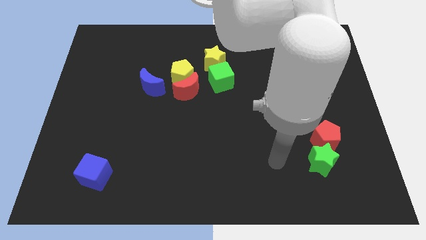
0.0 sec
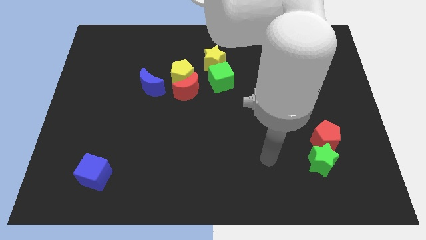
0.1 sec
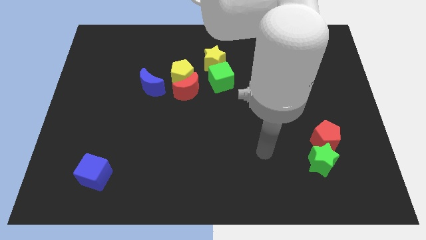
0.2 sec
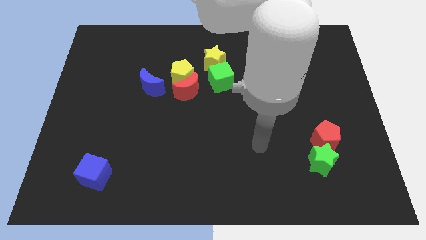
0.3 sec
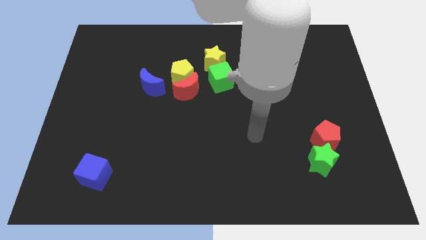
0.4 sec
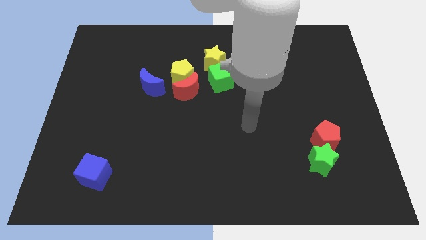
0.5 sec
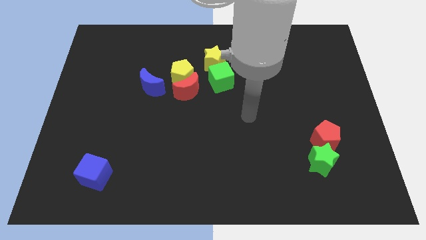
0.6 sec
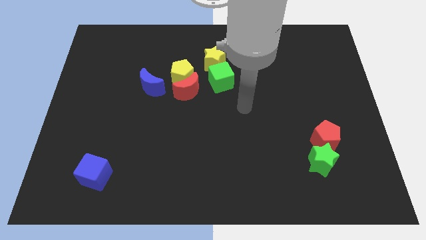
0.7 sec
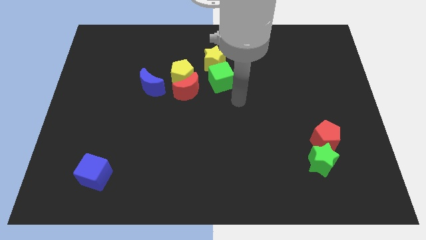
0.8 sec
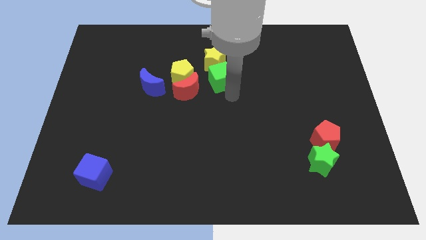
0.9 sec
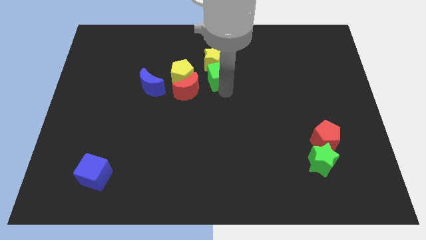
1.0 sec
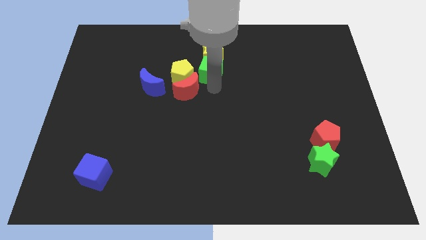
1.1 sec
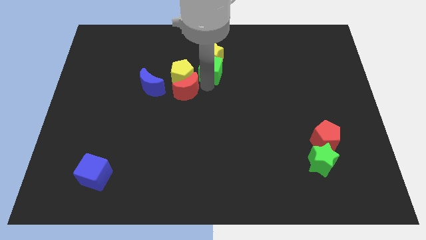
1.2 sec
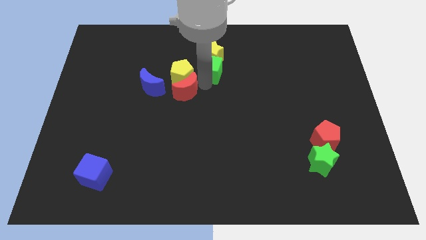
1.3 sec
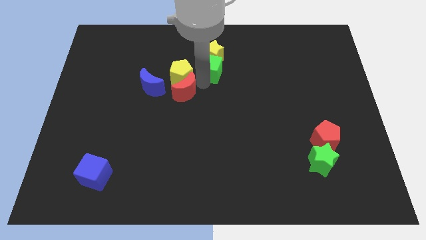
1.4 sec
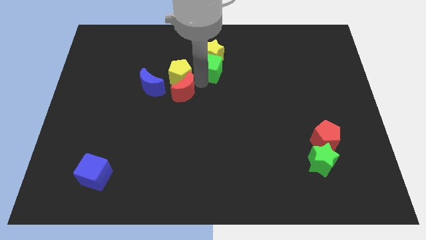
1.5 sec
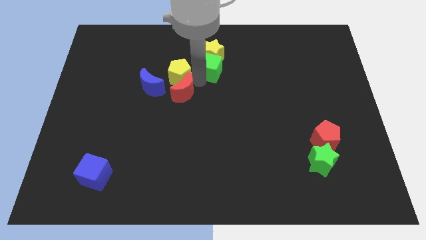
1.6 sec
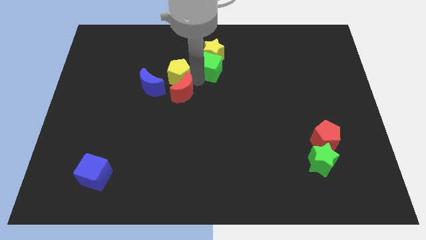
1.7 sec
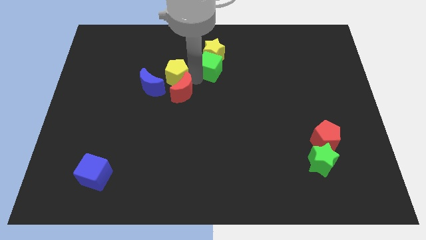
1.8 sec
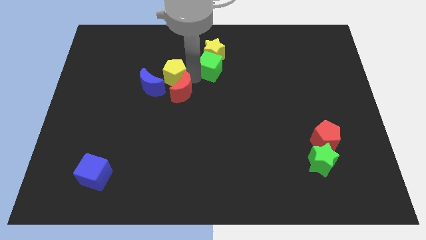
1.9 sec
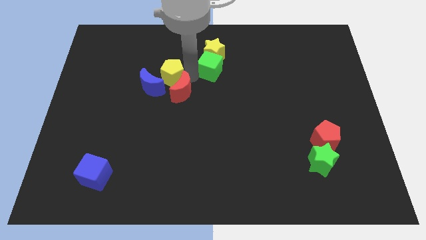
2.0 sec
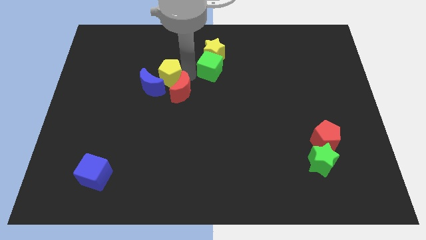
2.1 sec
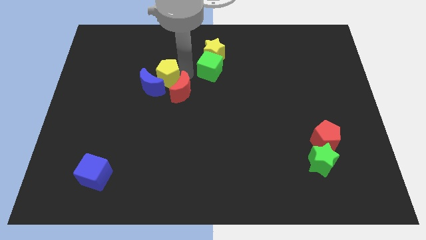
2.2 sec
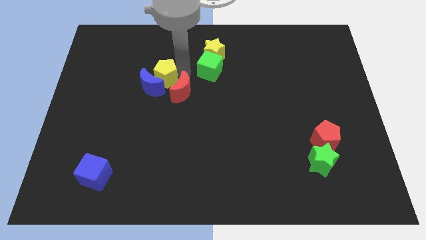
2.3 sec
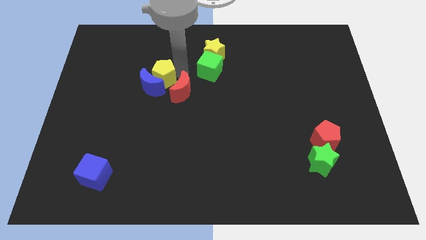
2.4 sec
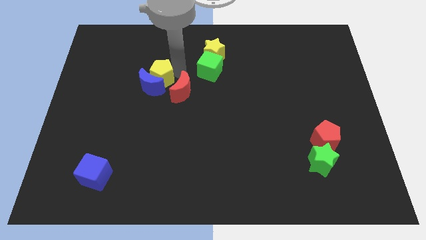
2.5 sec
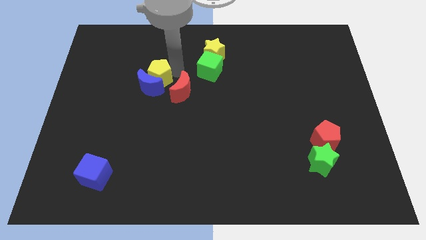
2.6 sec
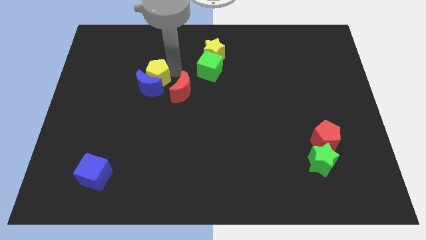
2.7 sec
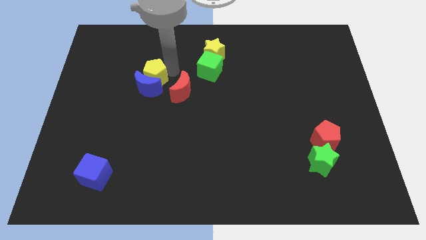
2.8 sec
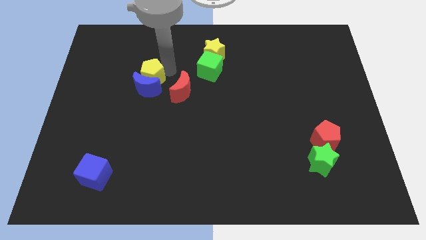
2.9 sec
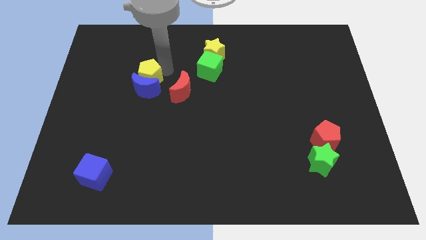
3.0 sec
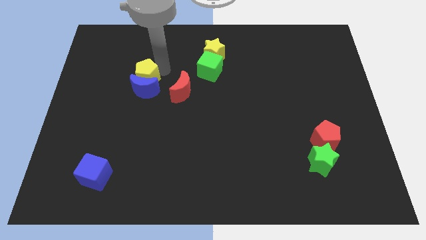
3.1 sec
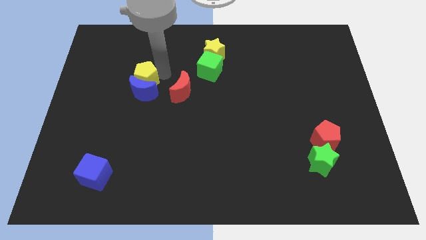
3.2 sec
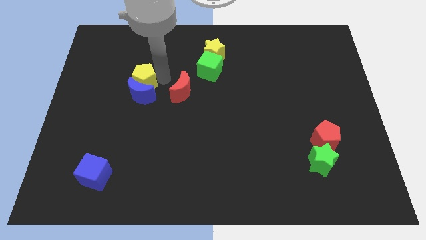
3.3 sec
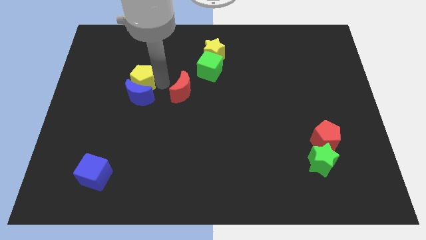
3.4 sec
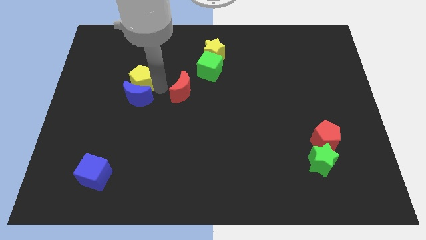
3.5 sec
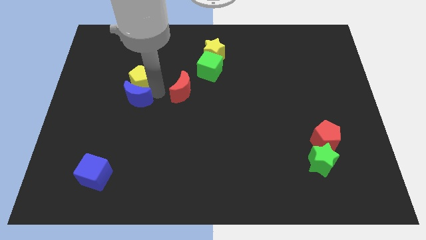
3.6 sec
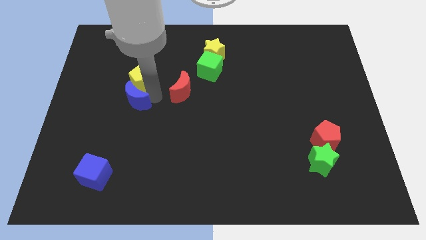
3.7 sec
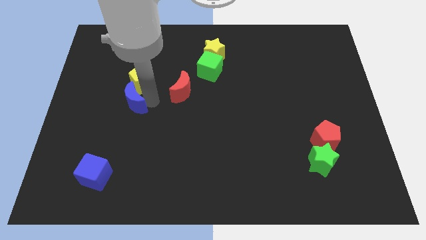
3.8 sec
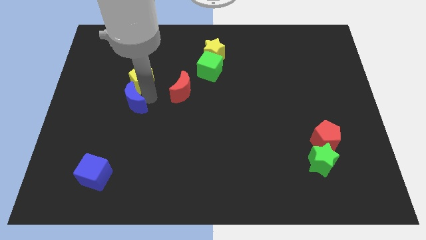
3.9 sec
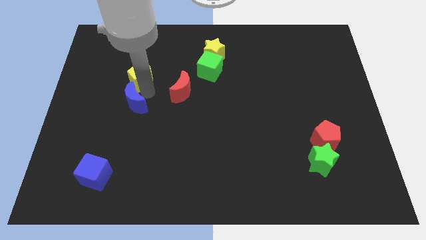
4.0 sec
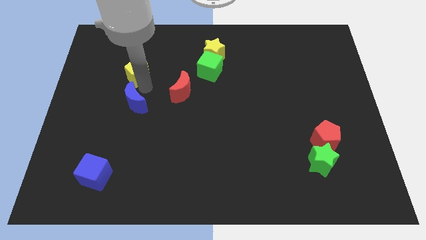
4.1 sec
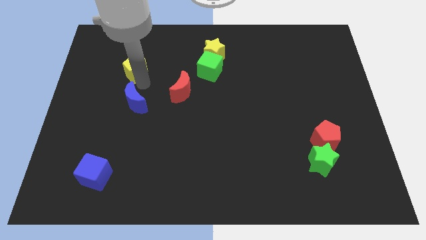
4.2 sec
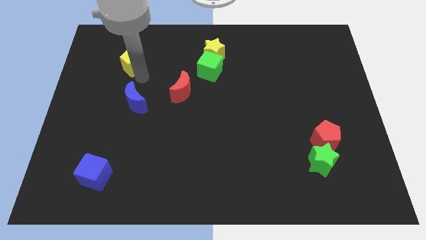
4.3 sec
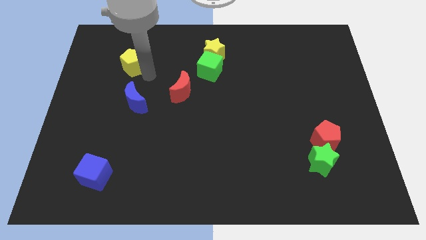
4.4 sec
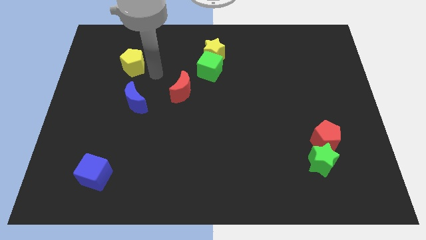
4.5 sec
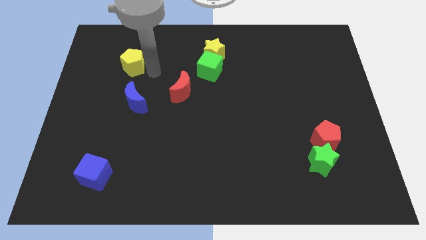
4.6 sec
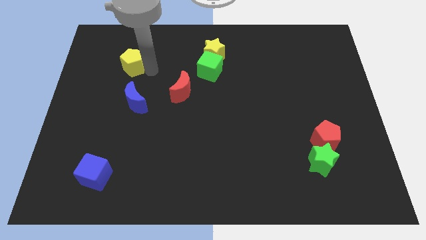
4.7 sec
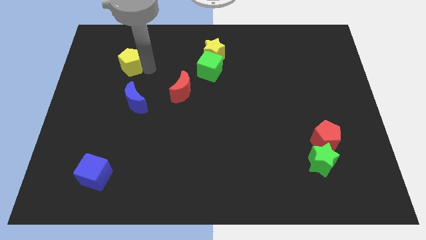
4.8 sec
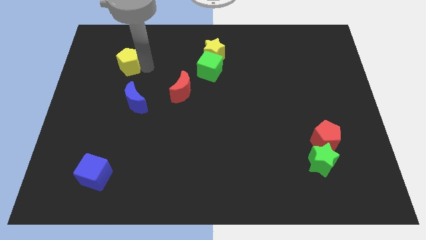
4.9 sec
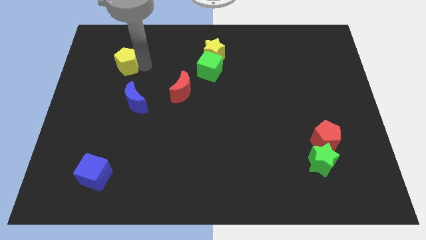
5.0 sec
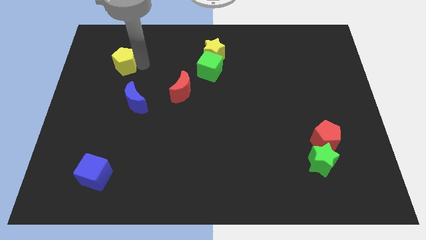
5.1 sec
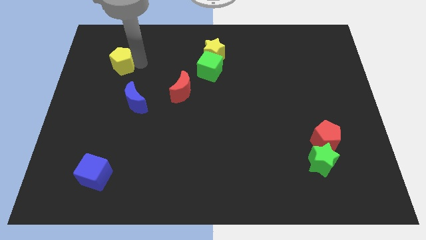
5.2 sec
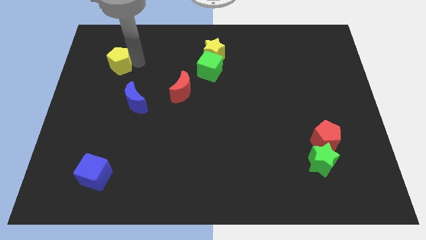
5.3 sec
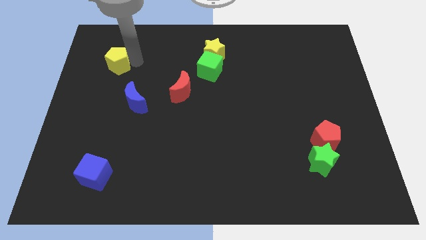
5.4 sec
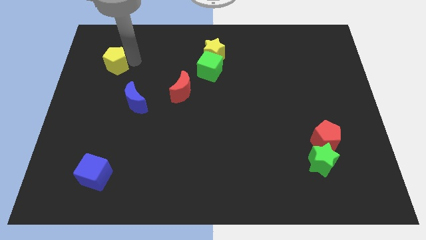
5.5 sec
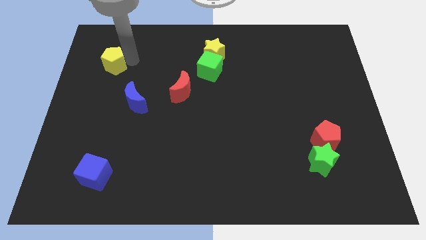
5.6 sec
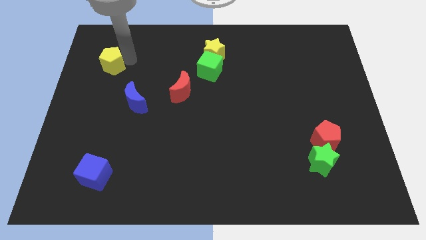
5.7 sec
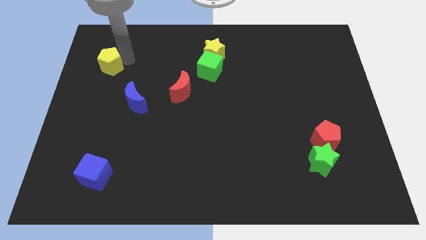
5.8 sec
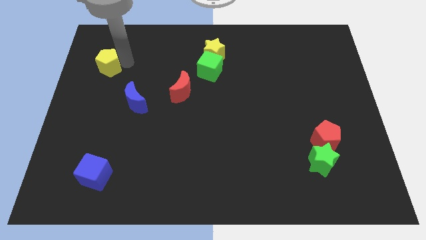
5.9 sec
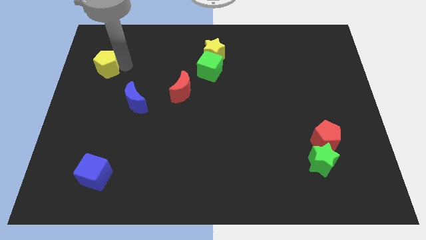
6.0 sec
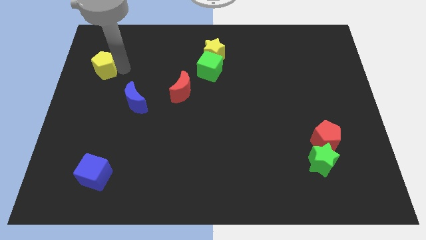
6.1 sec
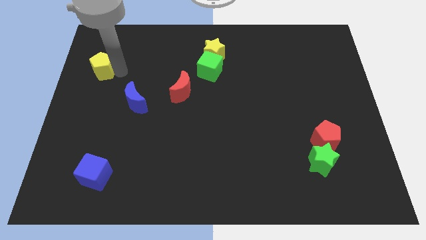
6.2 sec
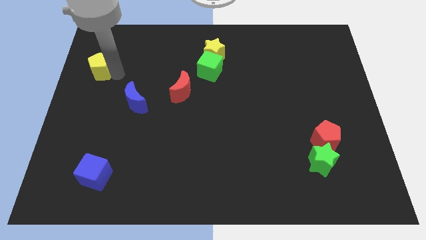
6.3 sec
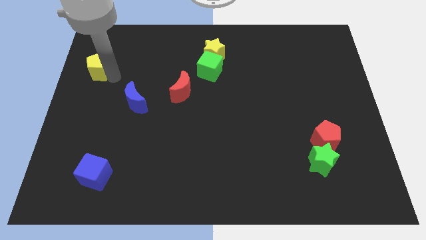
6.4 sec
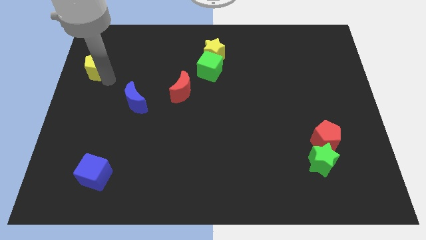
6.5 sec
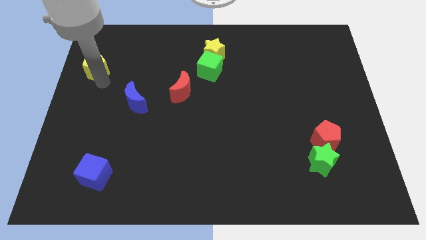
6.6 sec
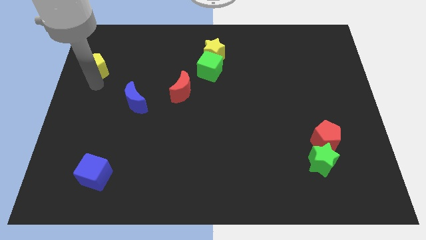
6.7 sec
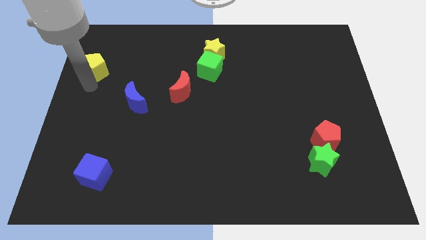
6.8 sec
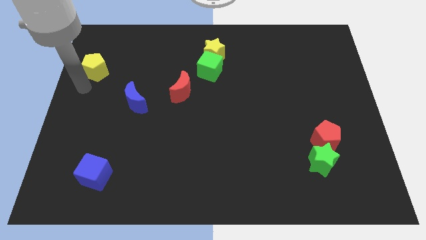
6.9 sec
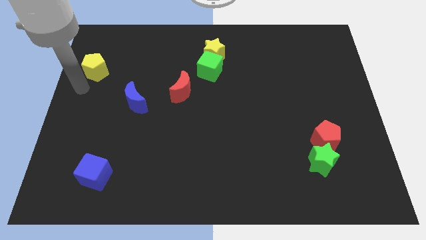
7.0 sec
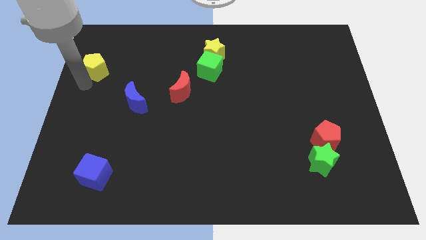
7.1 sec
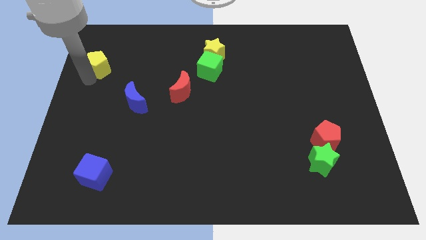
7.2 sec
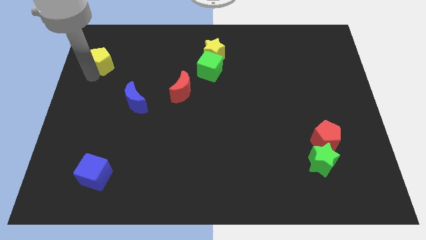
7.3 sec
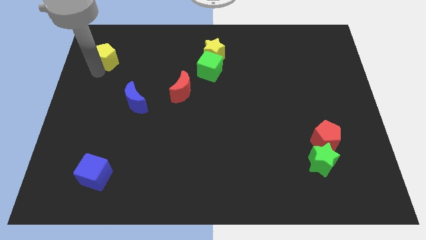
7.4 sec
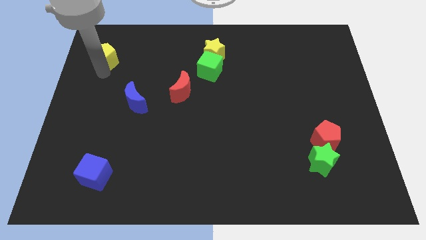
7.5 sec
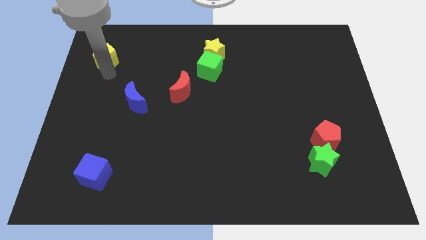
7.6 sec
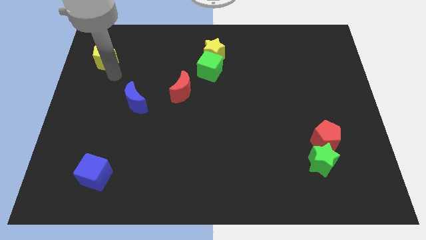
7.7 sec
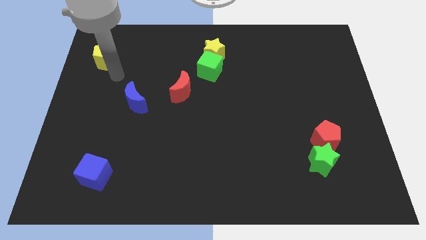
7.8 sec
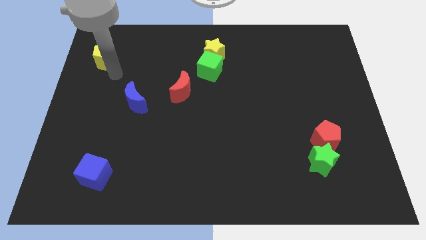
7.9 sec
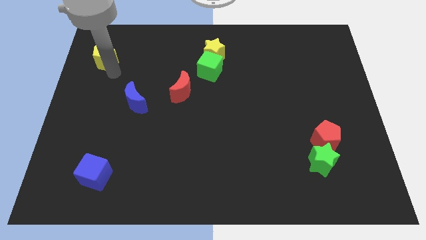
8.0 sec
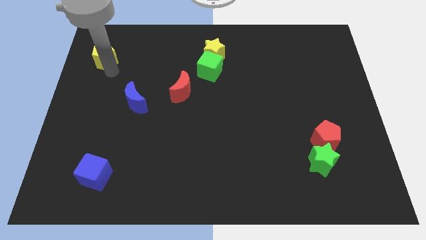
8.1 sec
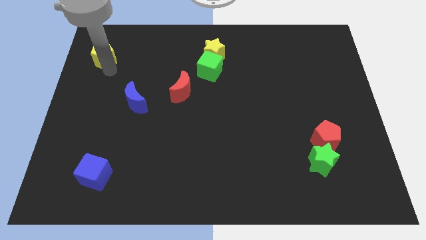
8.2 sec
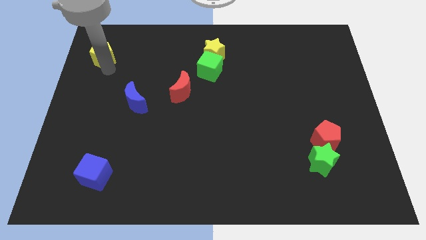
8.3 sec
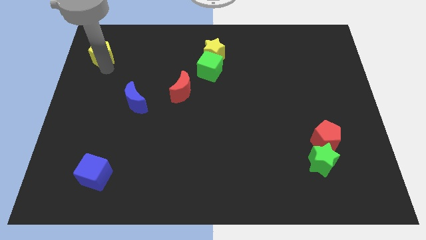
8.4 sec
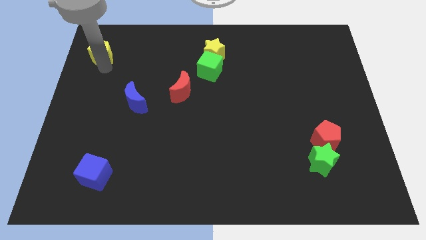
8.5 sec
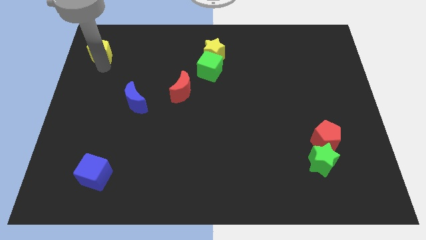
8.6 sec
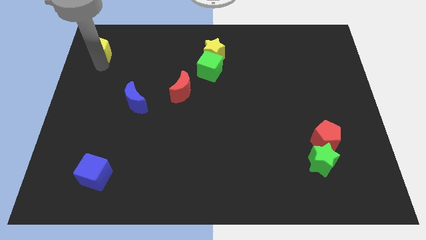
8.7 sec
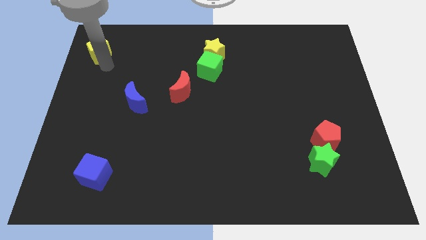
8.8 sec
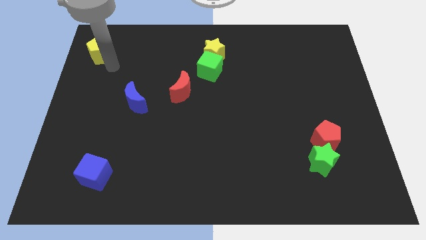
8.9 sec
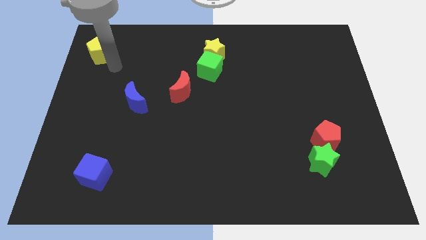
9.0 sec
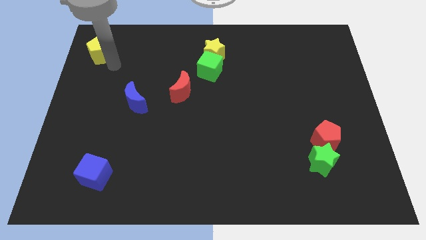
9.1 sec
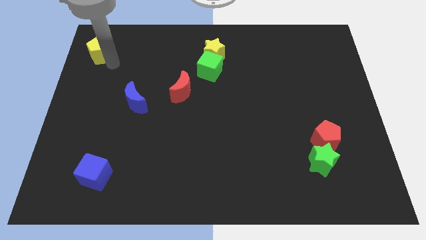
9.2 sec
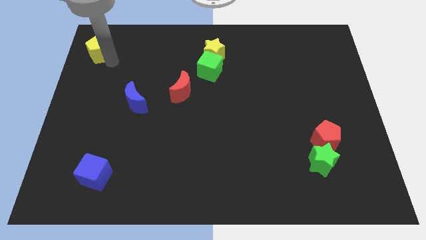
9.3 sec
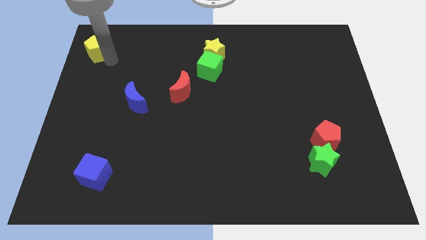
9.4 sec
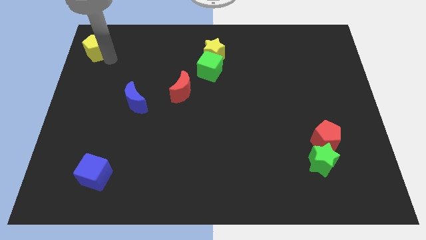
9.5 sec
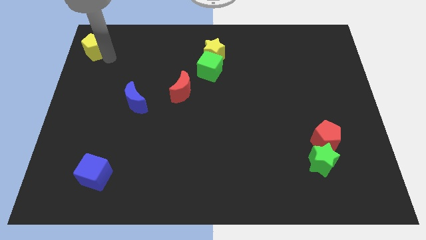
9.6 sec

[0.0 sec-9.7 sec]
slide the yellow pentagon to the top left
